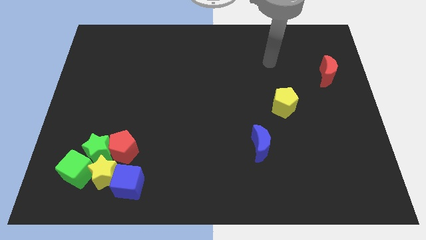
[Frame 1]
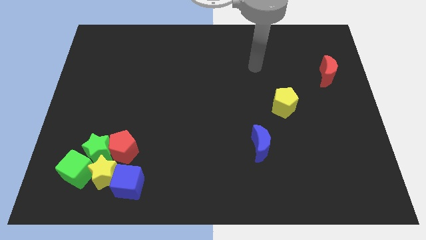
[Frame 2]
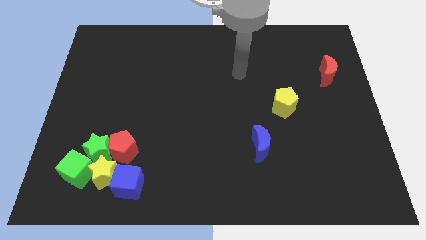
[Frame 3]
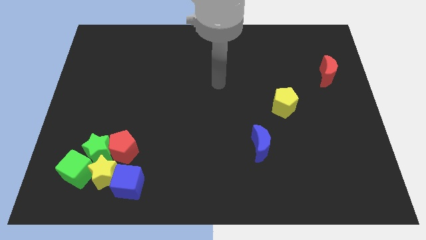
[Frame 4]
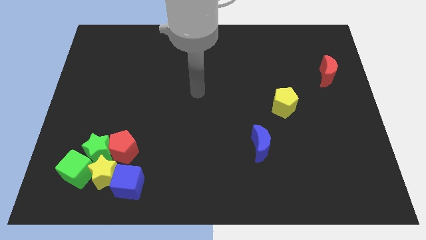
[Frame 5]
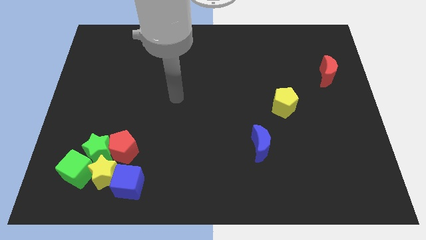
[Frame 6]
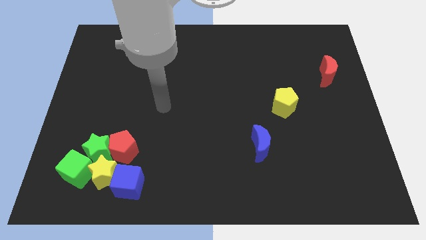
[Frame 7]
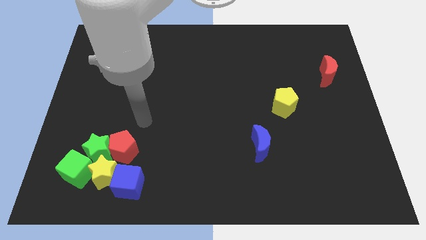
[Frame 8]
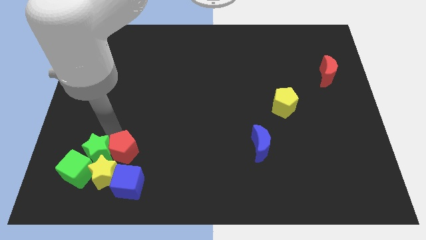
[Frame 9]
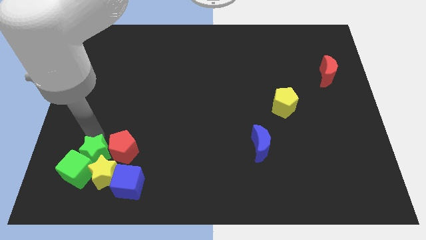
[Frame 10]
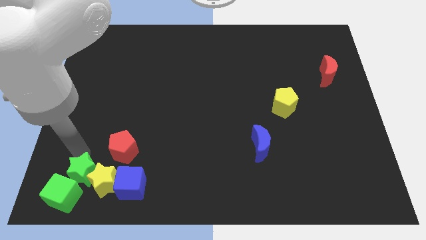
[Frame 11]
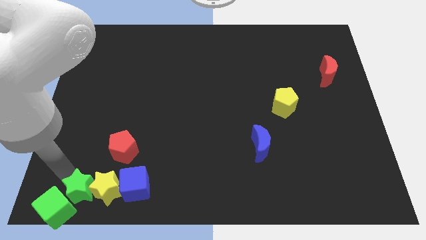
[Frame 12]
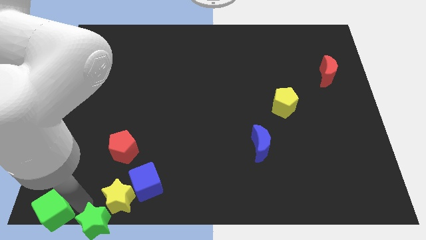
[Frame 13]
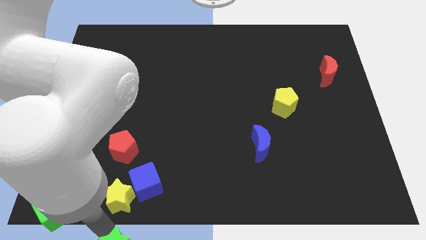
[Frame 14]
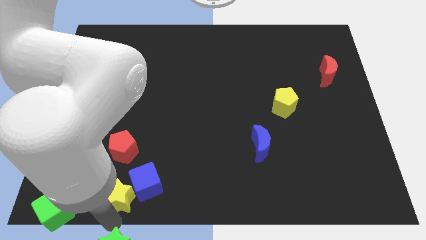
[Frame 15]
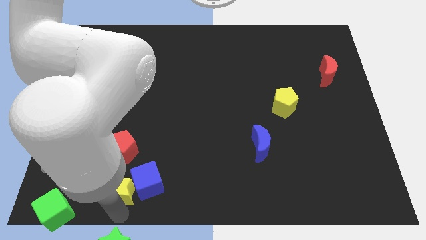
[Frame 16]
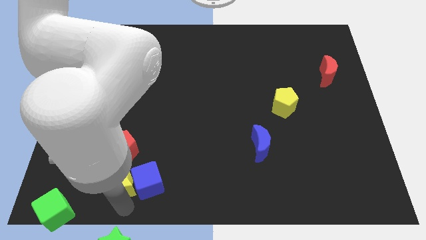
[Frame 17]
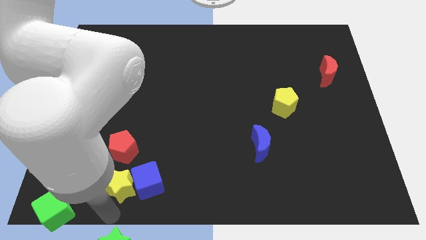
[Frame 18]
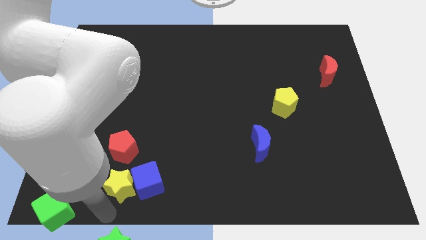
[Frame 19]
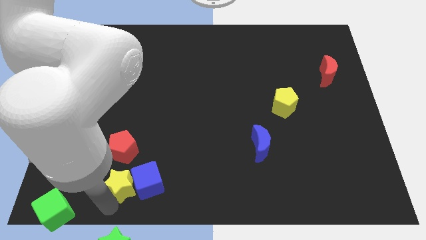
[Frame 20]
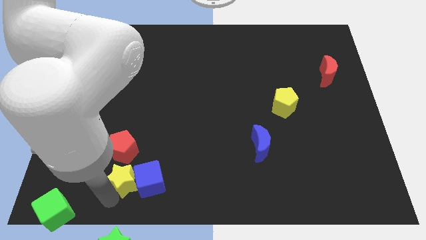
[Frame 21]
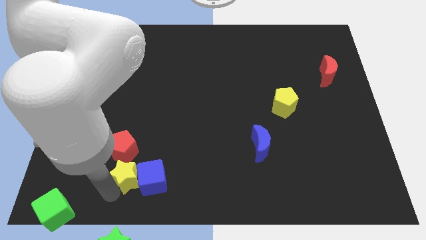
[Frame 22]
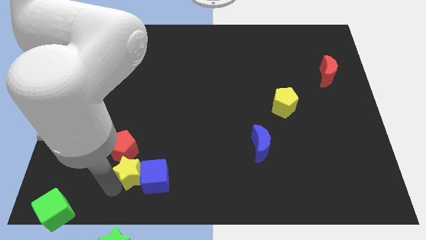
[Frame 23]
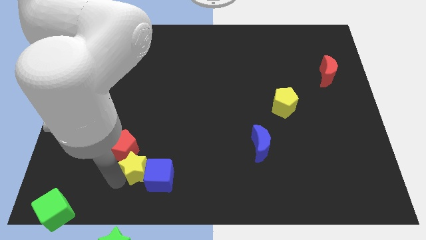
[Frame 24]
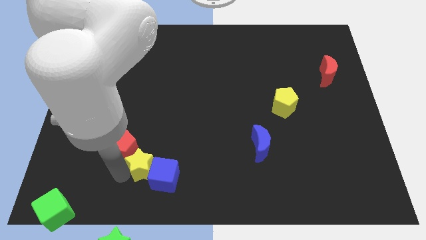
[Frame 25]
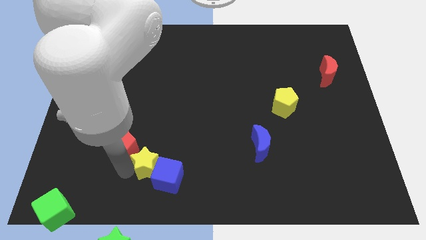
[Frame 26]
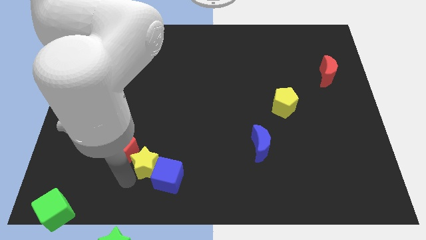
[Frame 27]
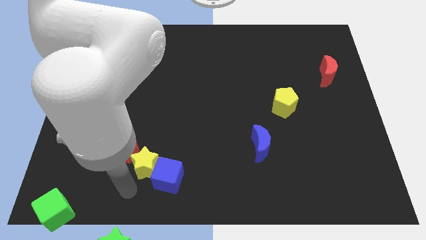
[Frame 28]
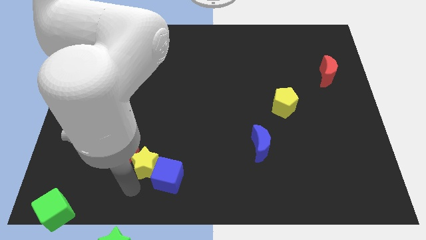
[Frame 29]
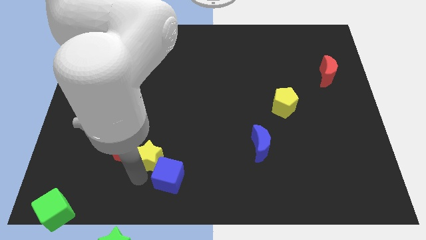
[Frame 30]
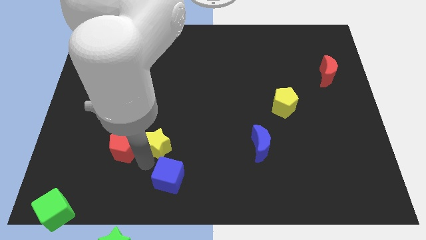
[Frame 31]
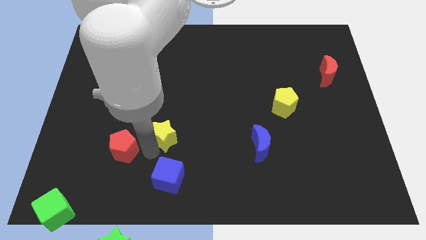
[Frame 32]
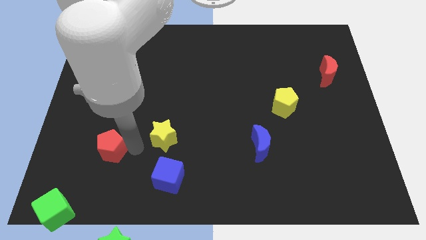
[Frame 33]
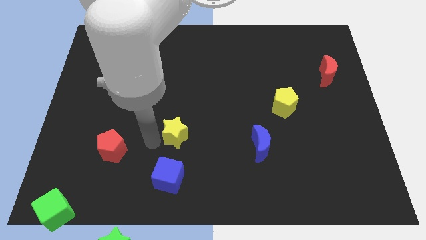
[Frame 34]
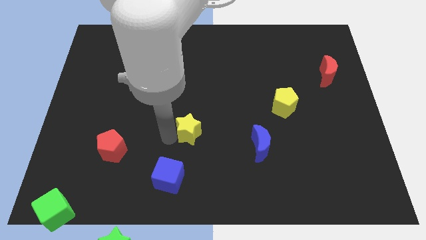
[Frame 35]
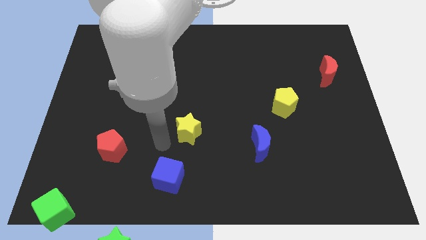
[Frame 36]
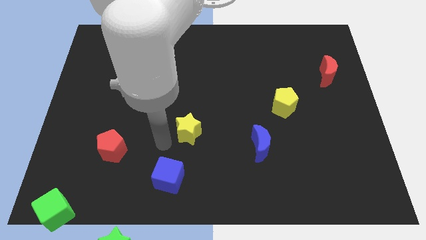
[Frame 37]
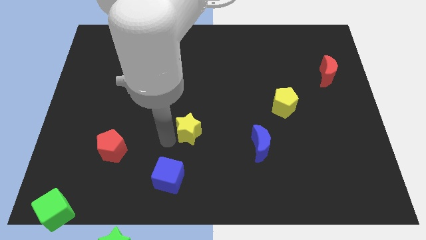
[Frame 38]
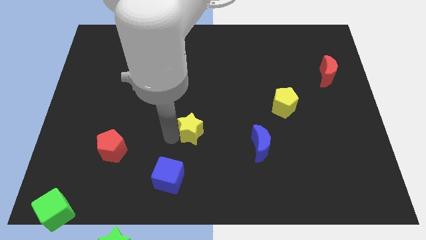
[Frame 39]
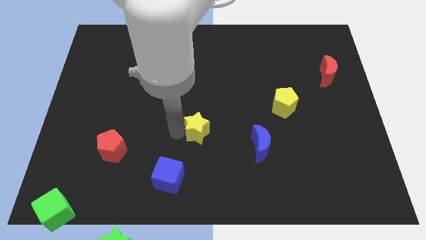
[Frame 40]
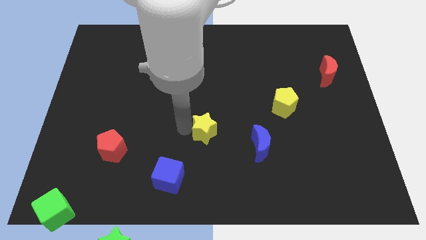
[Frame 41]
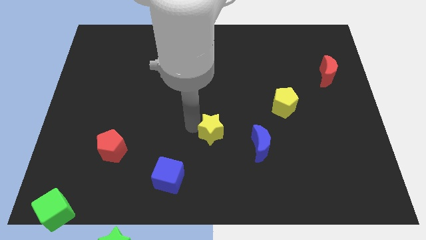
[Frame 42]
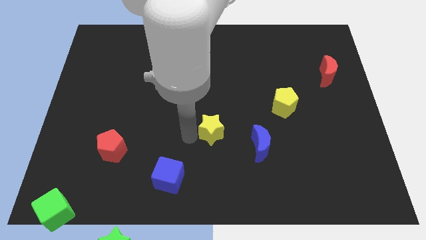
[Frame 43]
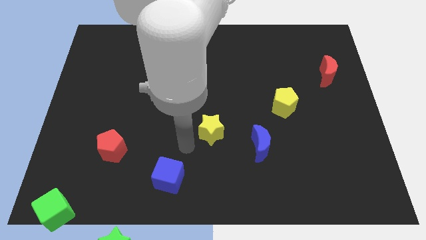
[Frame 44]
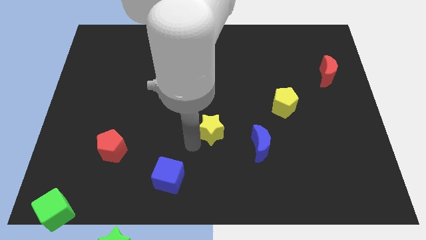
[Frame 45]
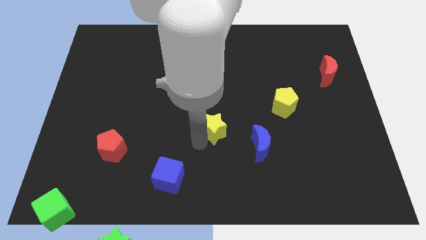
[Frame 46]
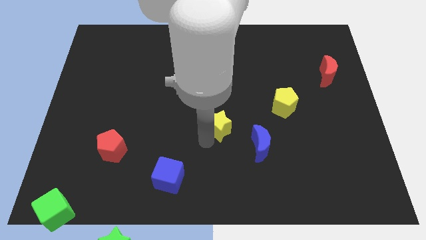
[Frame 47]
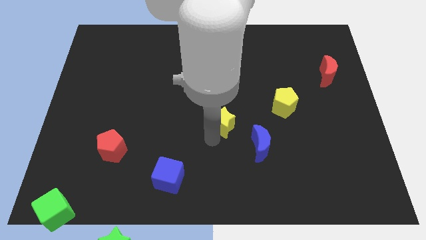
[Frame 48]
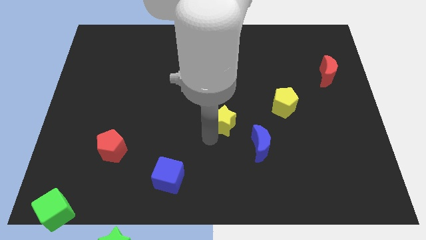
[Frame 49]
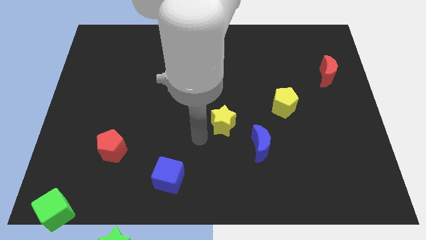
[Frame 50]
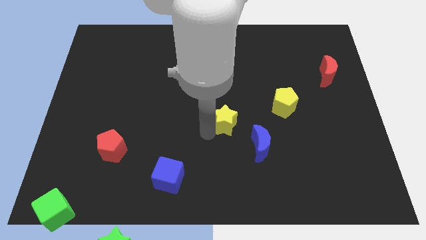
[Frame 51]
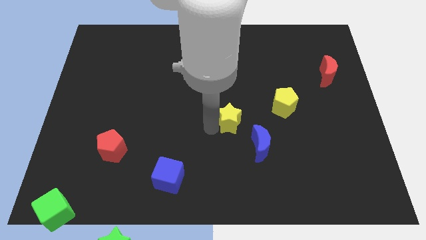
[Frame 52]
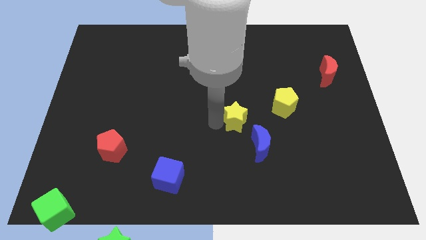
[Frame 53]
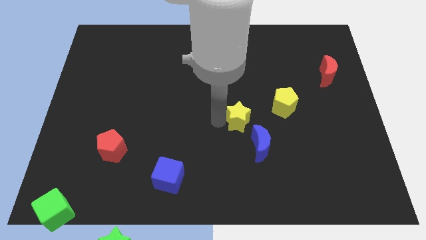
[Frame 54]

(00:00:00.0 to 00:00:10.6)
push the yellow star to the top of the blue moon

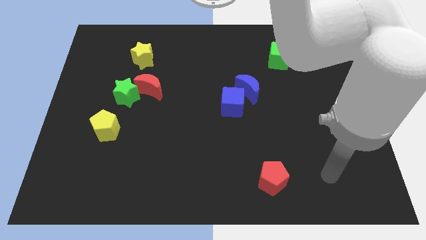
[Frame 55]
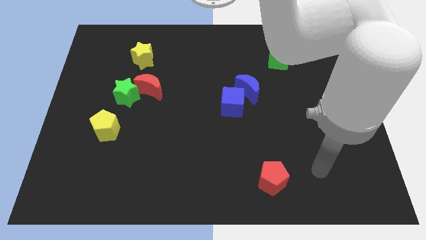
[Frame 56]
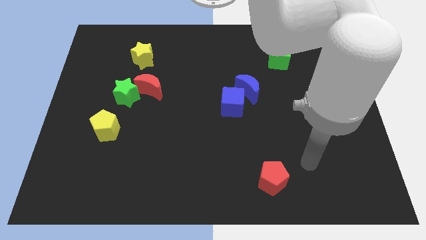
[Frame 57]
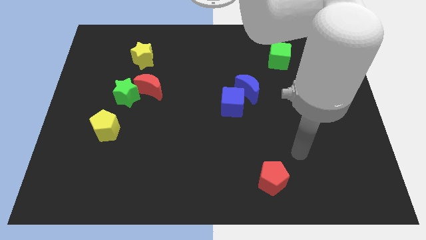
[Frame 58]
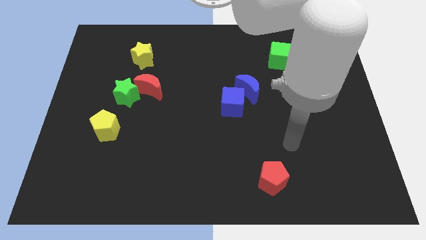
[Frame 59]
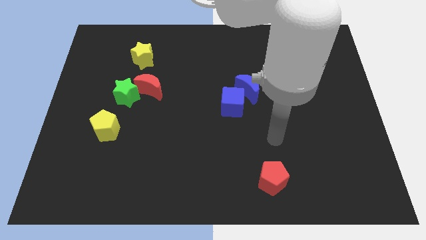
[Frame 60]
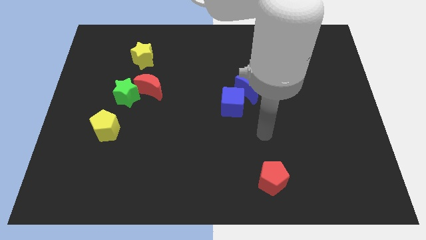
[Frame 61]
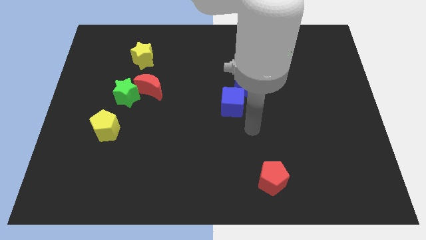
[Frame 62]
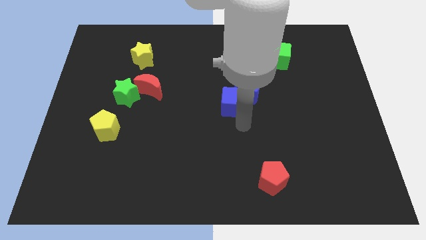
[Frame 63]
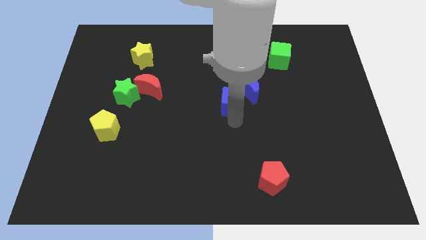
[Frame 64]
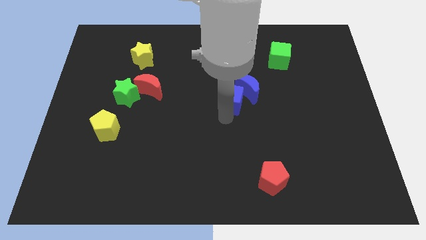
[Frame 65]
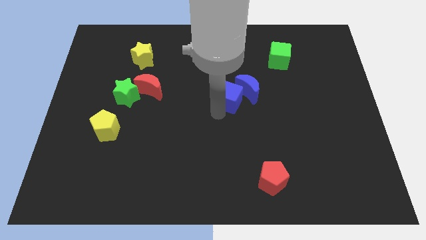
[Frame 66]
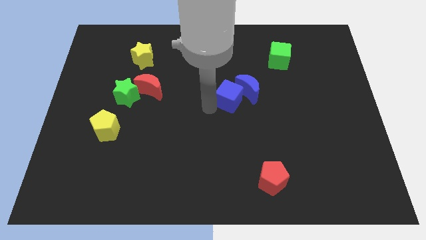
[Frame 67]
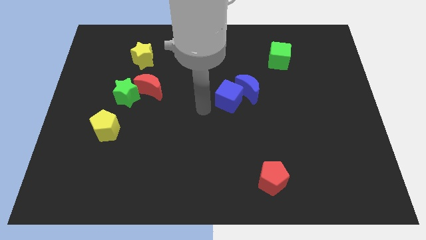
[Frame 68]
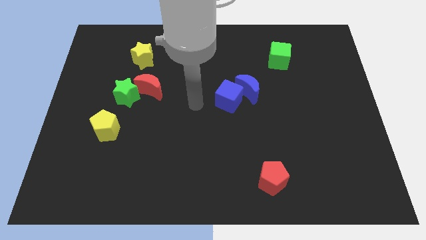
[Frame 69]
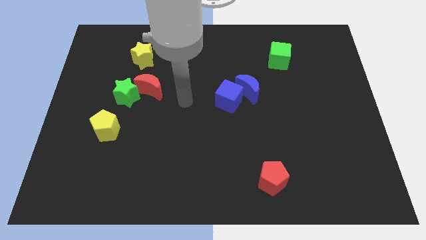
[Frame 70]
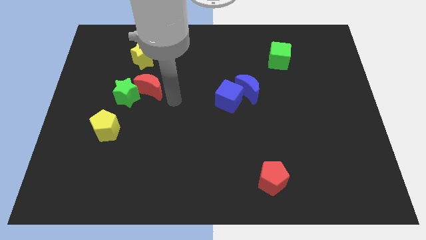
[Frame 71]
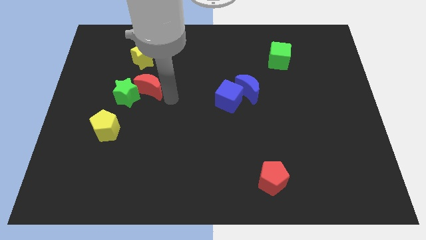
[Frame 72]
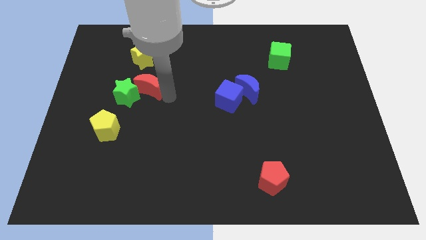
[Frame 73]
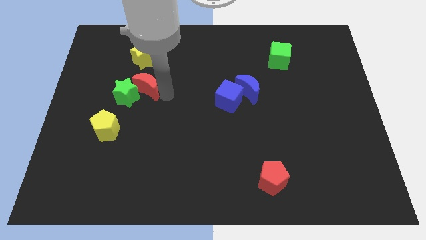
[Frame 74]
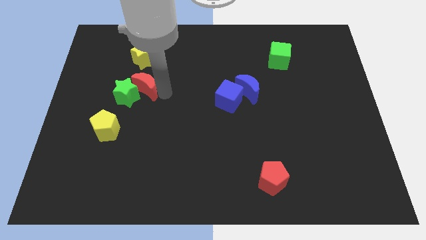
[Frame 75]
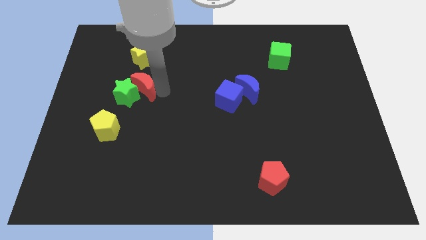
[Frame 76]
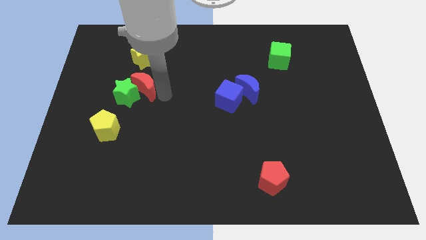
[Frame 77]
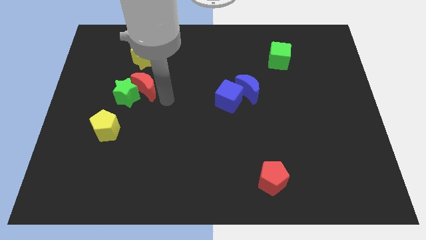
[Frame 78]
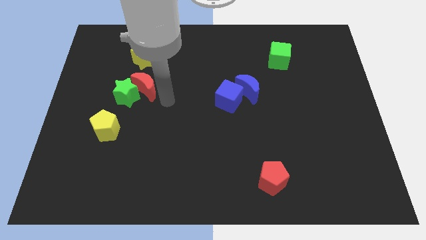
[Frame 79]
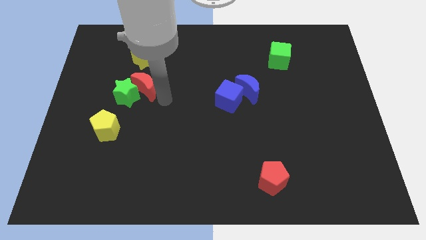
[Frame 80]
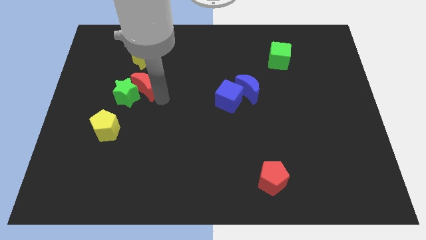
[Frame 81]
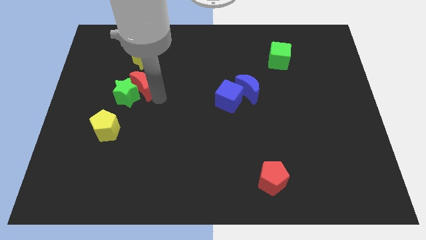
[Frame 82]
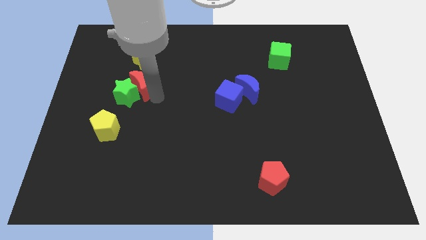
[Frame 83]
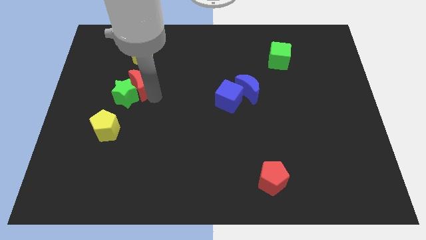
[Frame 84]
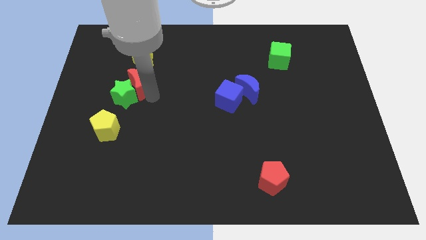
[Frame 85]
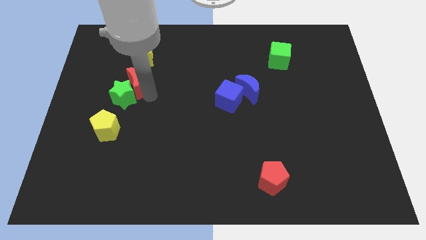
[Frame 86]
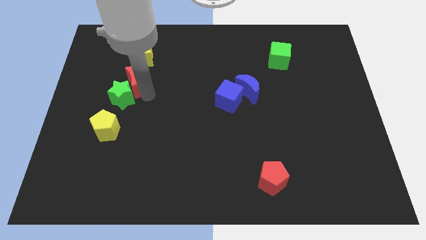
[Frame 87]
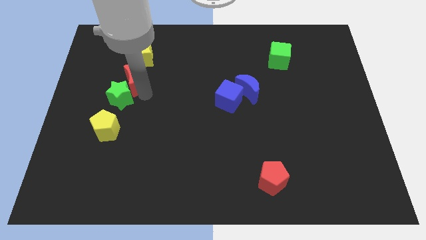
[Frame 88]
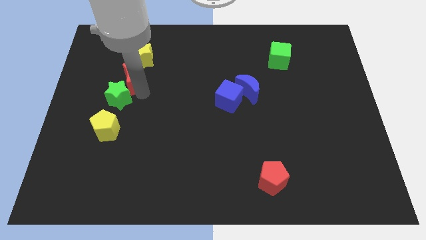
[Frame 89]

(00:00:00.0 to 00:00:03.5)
slide the red moon diagonally down and to the left of the yellow star
